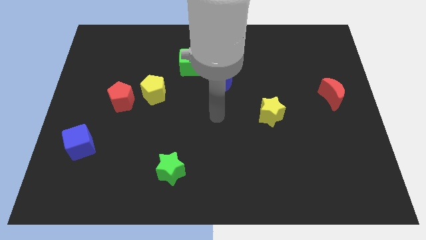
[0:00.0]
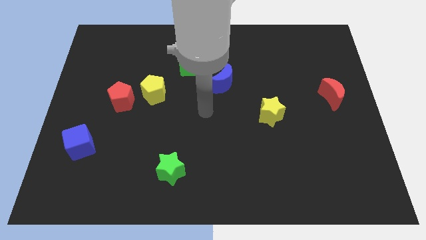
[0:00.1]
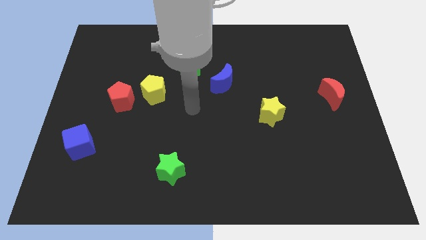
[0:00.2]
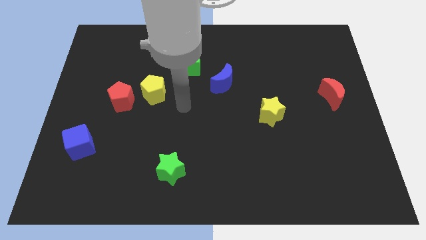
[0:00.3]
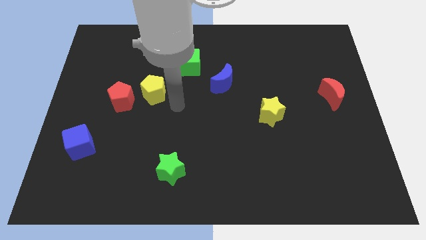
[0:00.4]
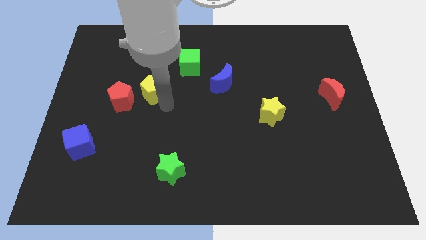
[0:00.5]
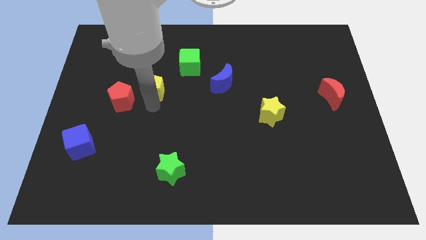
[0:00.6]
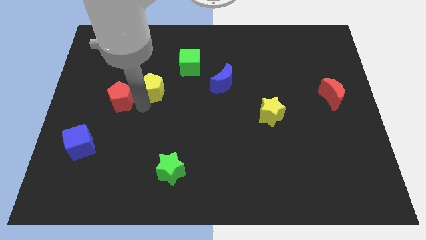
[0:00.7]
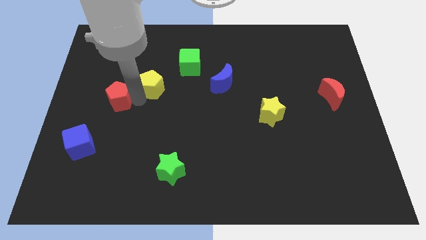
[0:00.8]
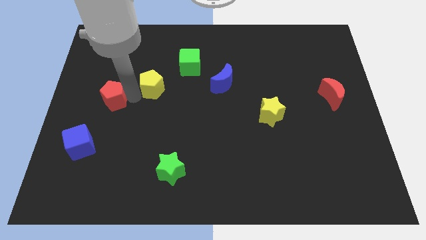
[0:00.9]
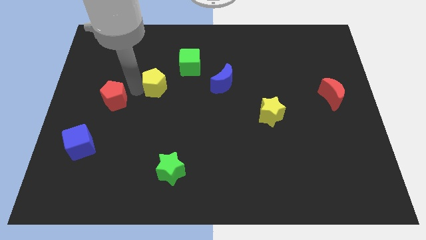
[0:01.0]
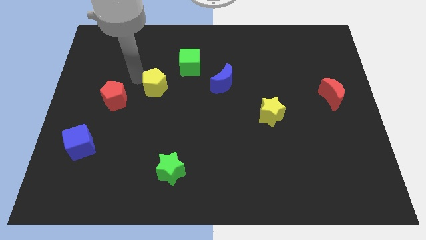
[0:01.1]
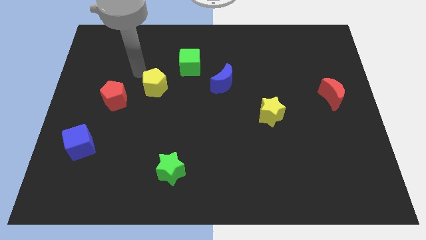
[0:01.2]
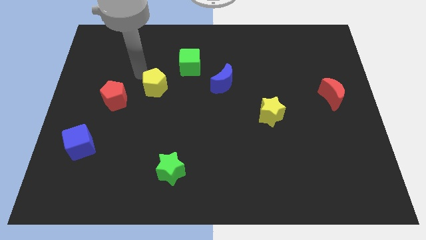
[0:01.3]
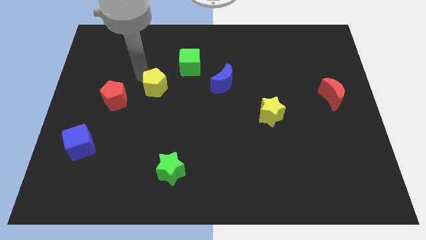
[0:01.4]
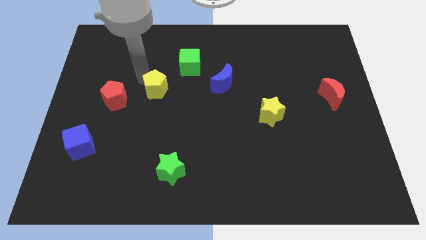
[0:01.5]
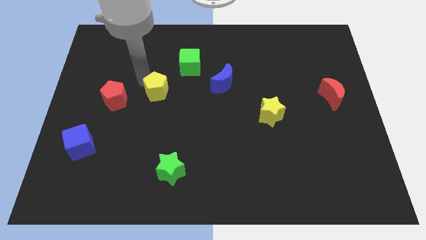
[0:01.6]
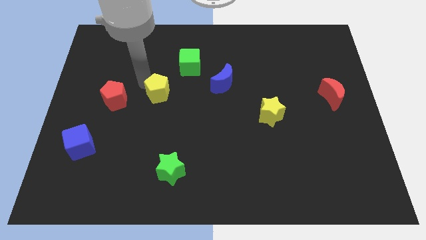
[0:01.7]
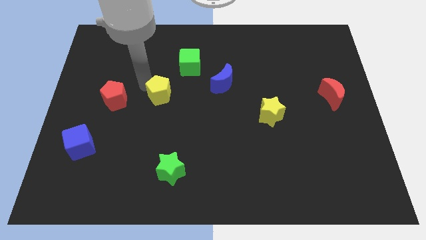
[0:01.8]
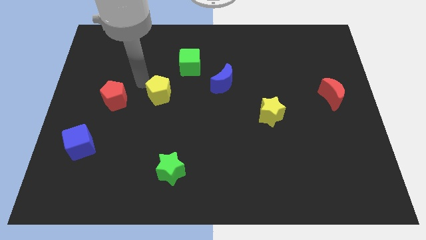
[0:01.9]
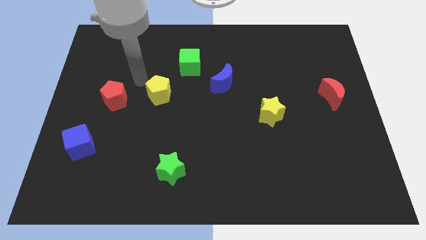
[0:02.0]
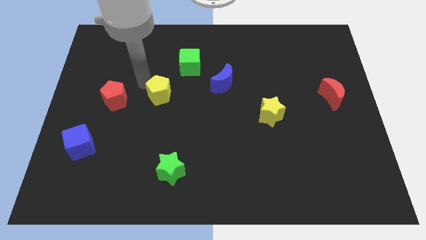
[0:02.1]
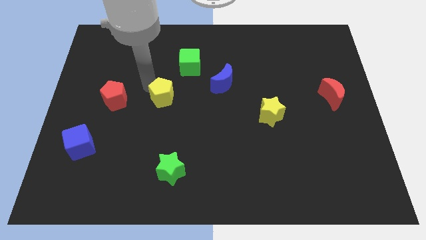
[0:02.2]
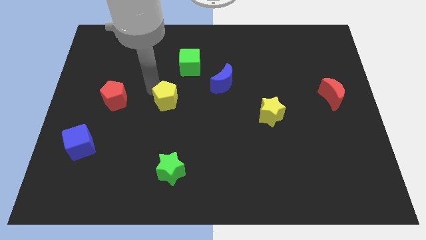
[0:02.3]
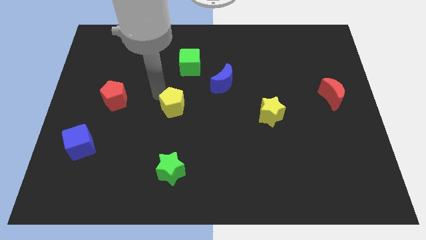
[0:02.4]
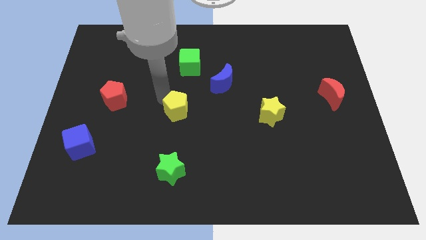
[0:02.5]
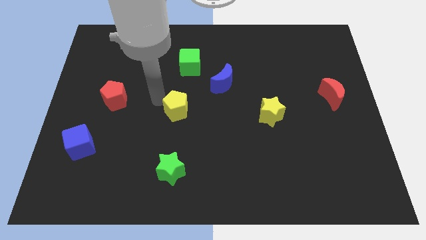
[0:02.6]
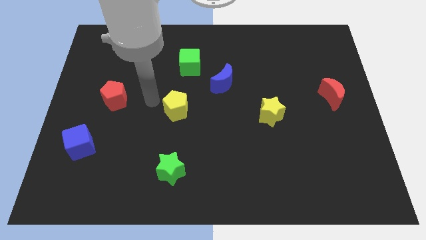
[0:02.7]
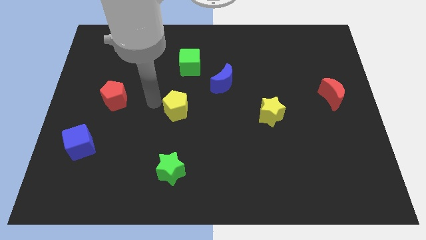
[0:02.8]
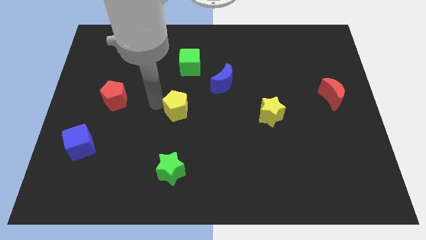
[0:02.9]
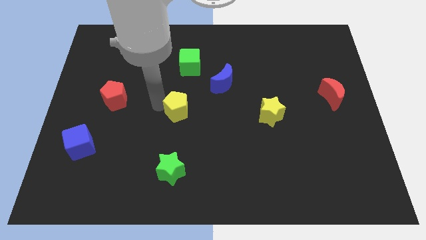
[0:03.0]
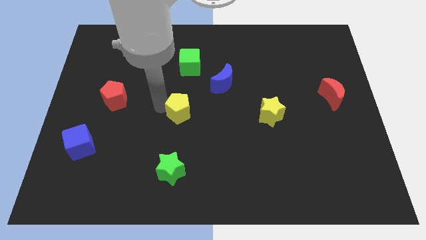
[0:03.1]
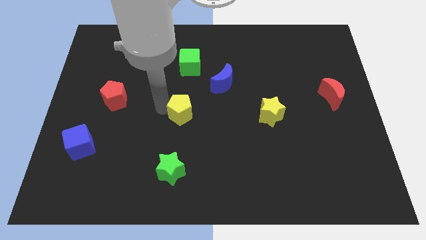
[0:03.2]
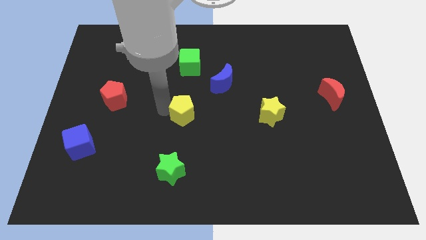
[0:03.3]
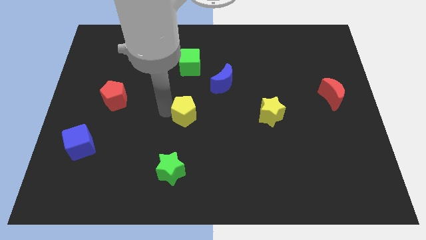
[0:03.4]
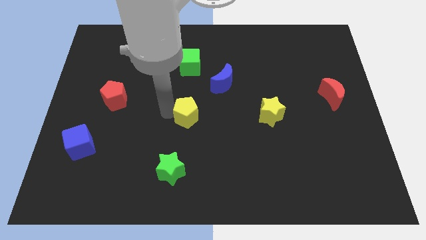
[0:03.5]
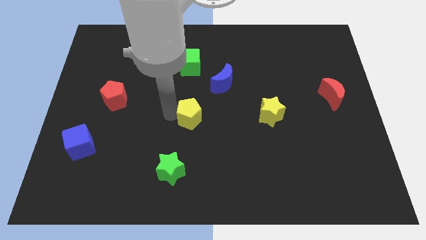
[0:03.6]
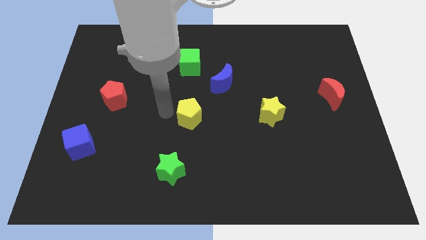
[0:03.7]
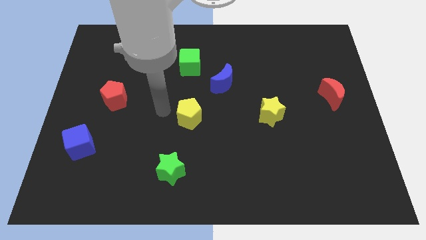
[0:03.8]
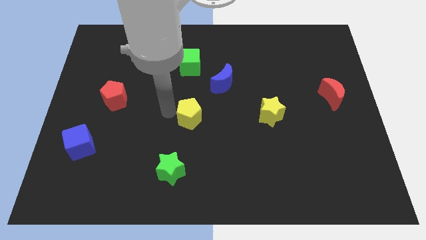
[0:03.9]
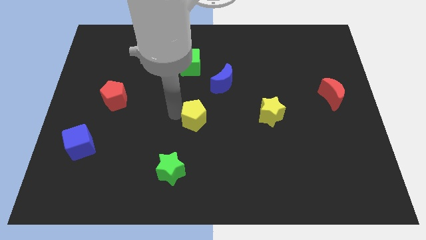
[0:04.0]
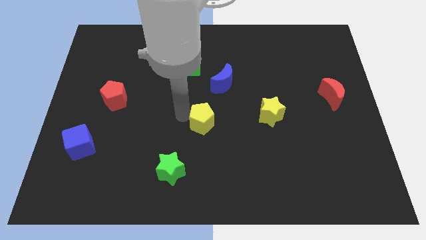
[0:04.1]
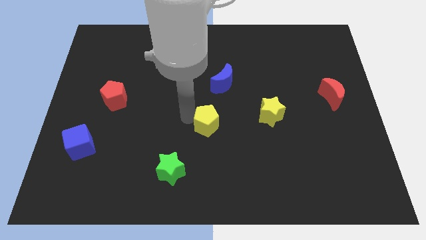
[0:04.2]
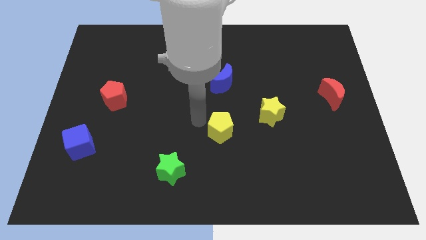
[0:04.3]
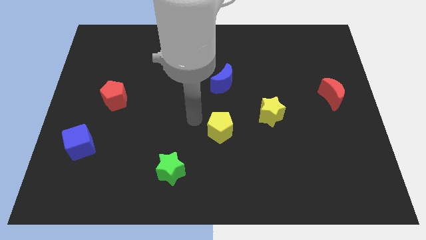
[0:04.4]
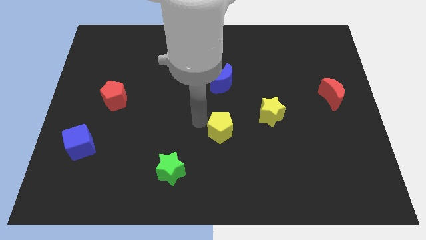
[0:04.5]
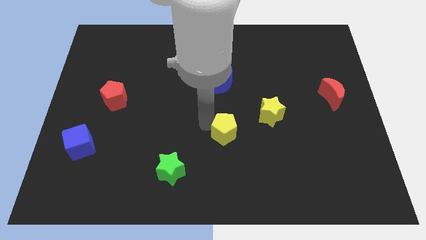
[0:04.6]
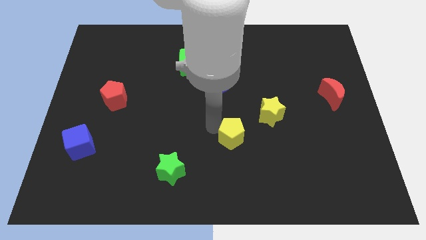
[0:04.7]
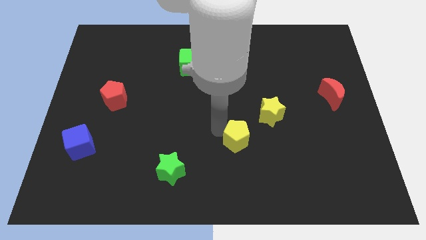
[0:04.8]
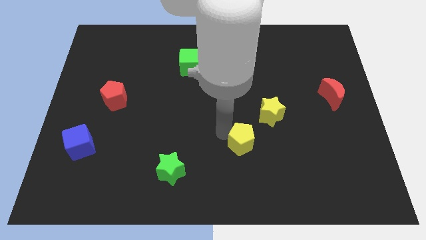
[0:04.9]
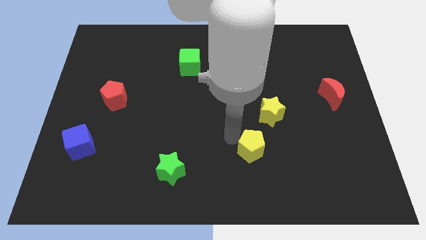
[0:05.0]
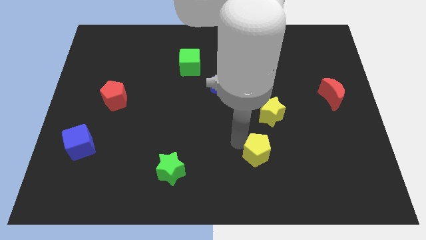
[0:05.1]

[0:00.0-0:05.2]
move the yellow pentagon below the yellow star

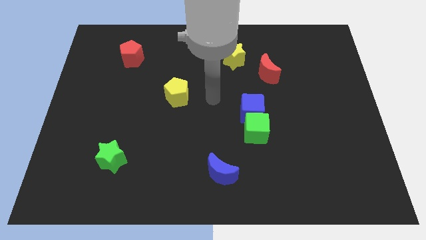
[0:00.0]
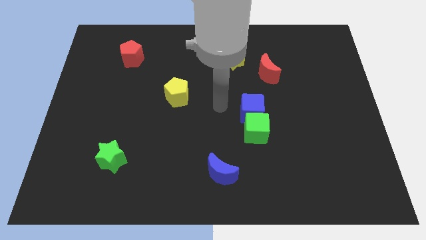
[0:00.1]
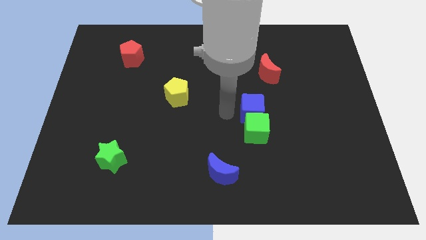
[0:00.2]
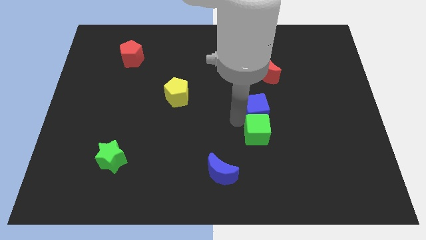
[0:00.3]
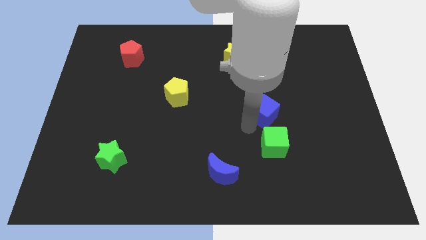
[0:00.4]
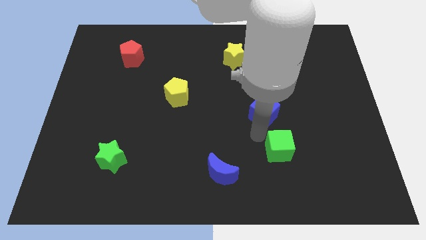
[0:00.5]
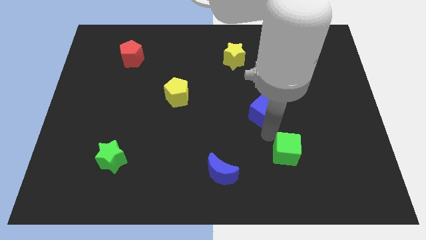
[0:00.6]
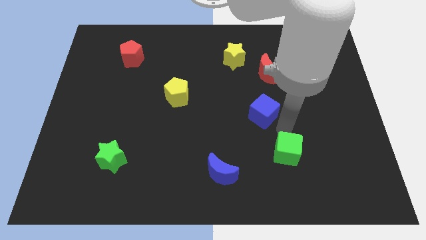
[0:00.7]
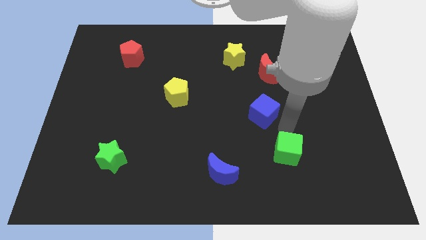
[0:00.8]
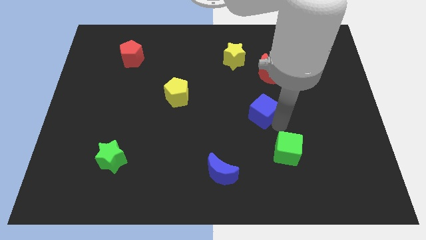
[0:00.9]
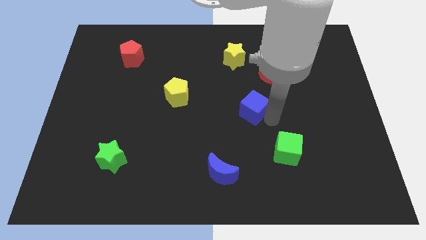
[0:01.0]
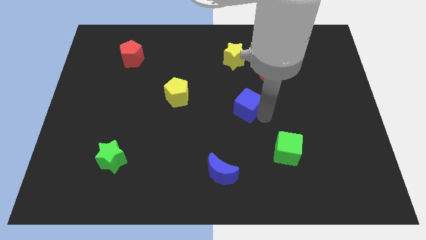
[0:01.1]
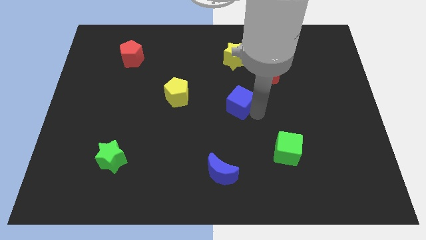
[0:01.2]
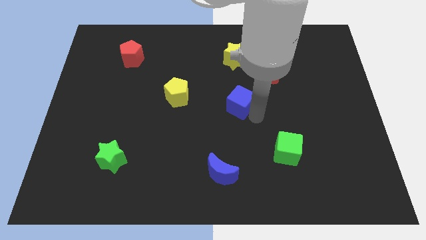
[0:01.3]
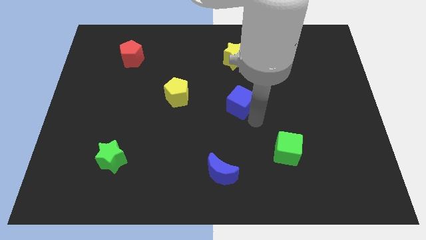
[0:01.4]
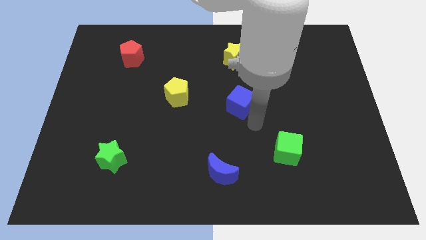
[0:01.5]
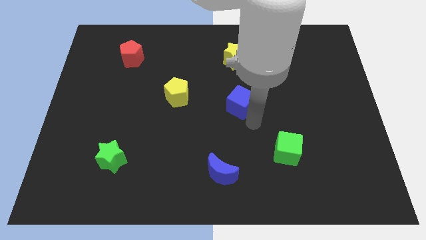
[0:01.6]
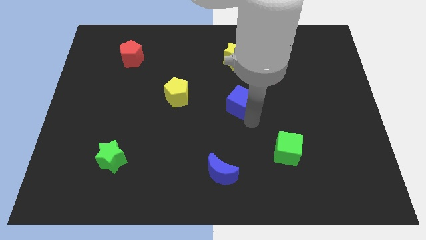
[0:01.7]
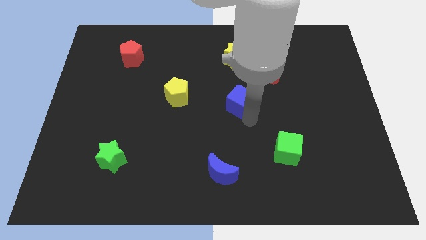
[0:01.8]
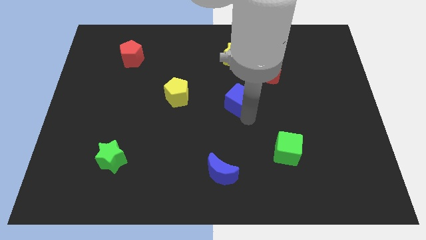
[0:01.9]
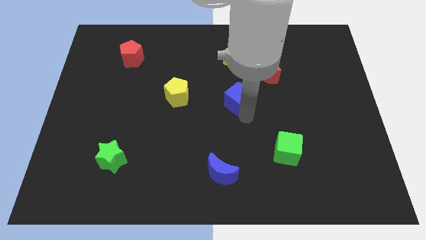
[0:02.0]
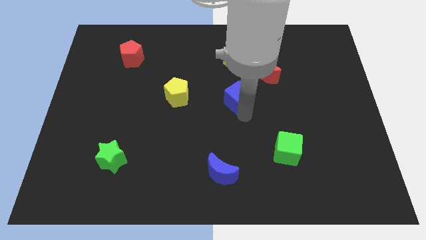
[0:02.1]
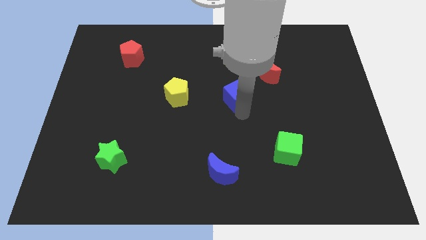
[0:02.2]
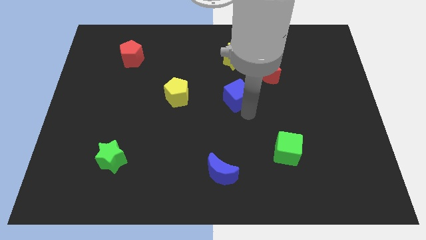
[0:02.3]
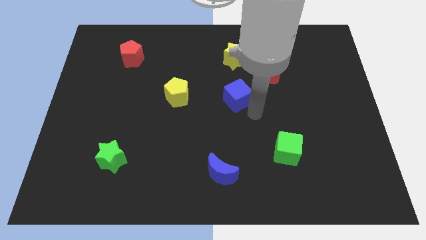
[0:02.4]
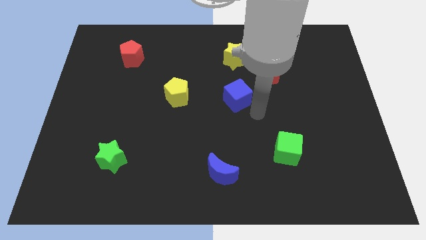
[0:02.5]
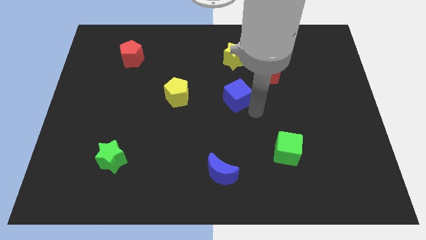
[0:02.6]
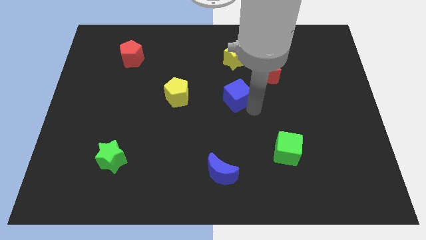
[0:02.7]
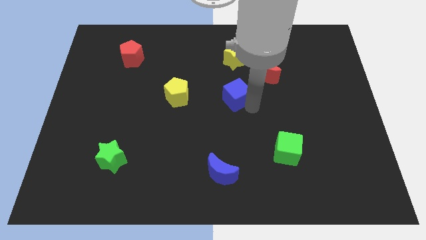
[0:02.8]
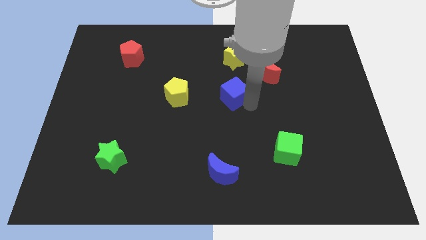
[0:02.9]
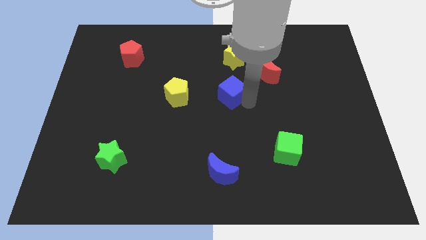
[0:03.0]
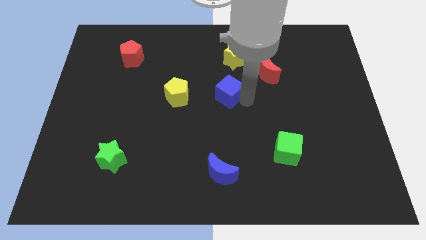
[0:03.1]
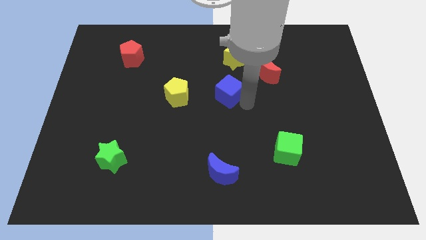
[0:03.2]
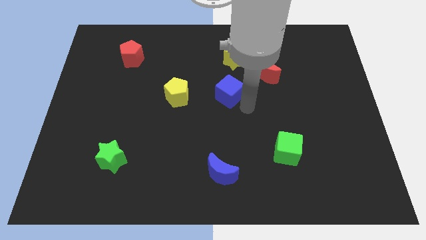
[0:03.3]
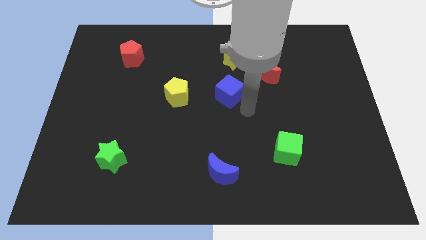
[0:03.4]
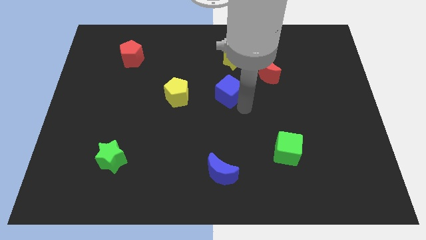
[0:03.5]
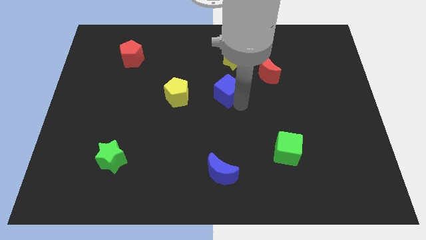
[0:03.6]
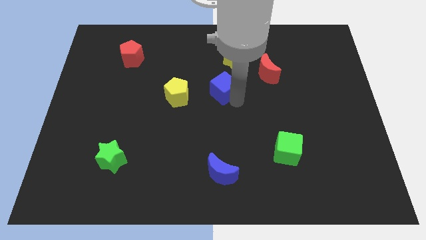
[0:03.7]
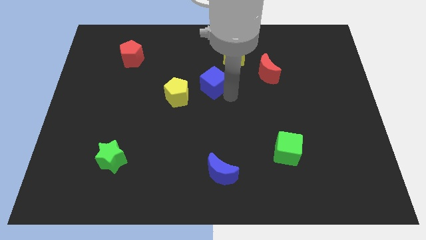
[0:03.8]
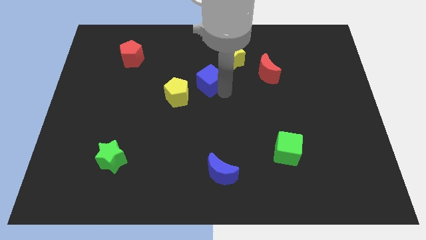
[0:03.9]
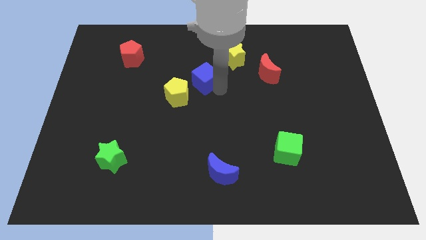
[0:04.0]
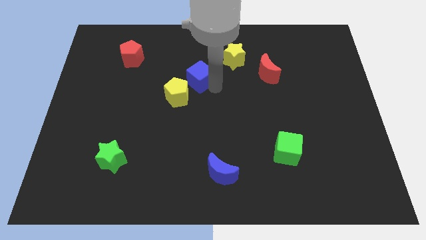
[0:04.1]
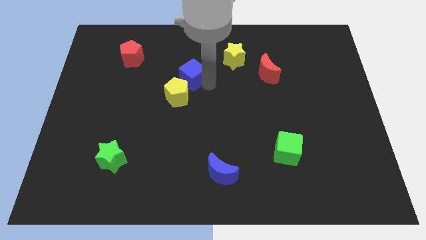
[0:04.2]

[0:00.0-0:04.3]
move the blue cube to the top of the yellow pentagon
